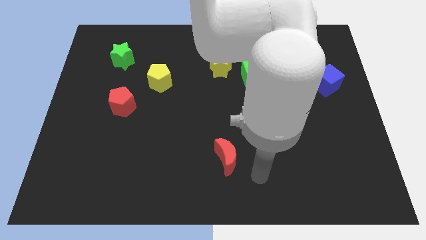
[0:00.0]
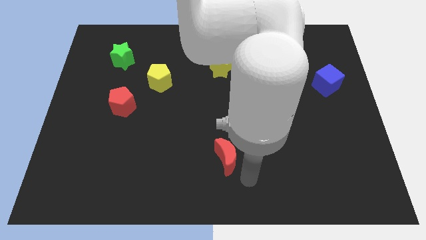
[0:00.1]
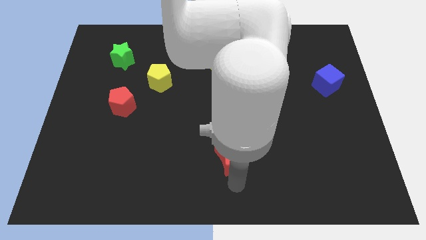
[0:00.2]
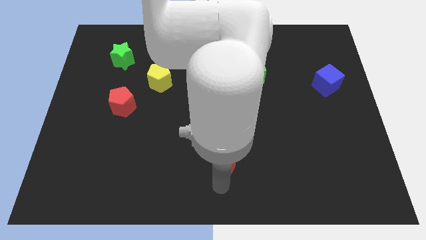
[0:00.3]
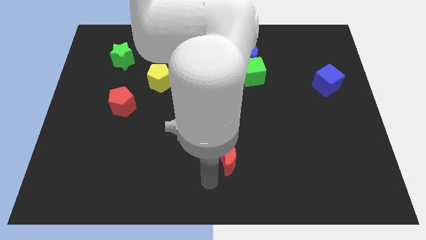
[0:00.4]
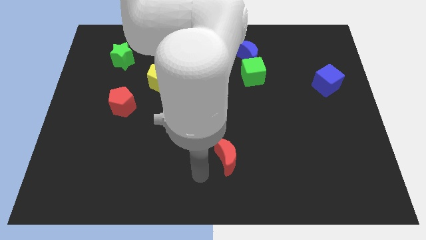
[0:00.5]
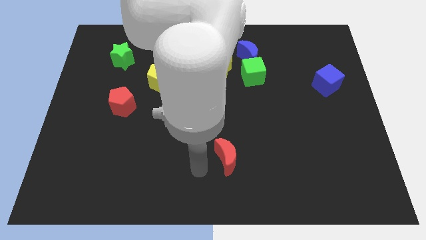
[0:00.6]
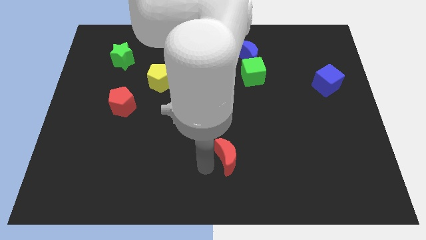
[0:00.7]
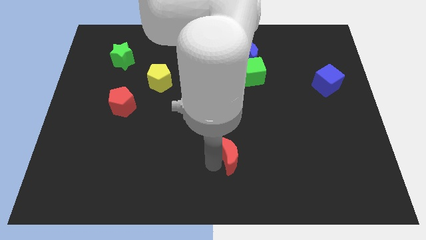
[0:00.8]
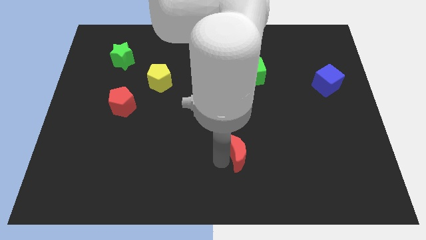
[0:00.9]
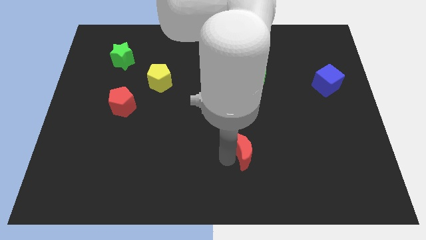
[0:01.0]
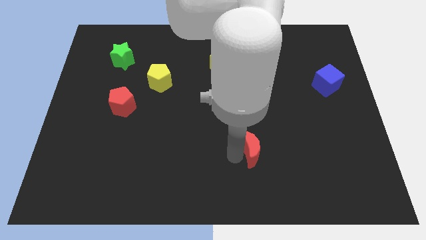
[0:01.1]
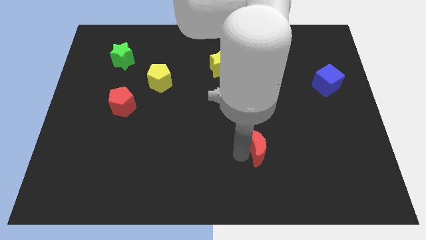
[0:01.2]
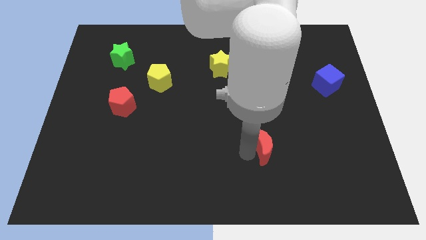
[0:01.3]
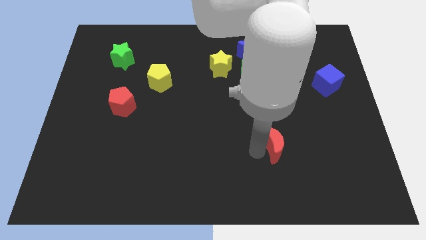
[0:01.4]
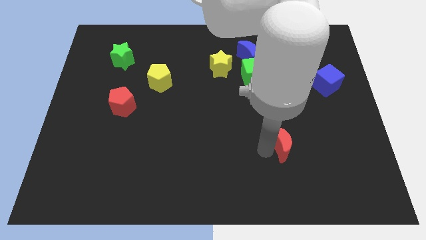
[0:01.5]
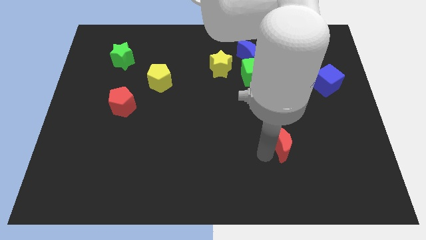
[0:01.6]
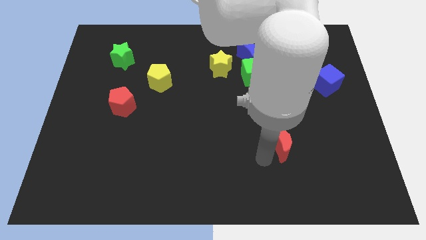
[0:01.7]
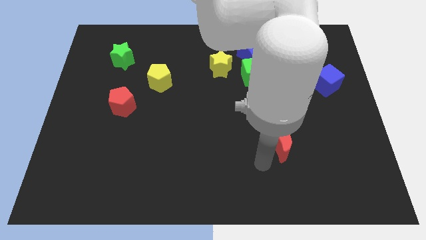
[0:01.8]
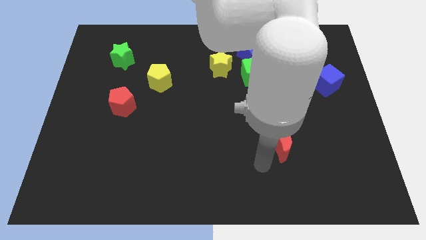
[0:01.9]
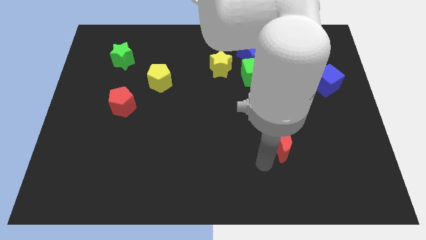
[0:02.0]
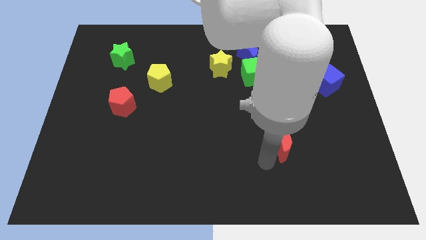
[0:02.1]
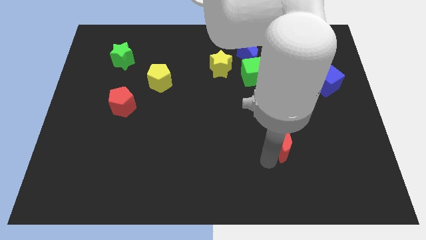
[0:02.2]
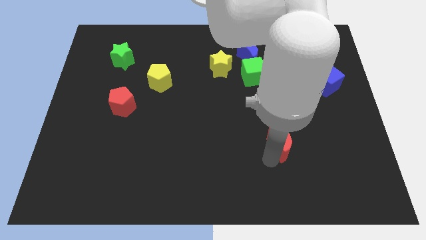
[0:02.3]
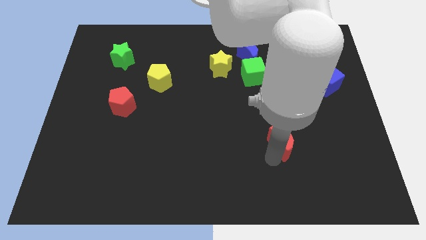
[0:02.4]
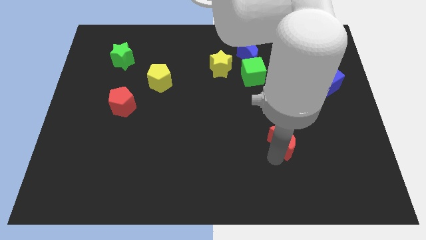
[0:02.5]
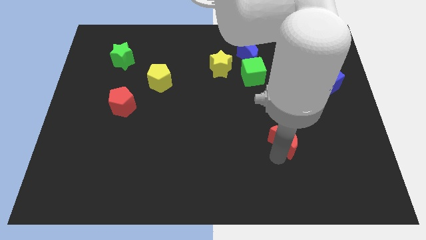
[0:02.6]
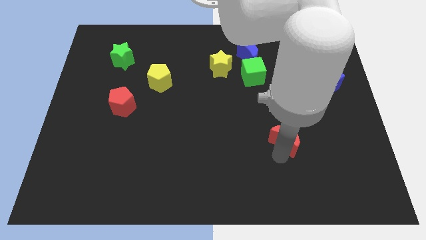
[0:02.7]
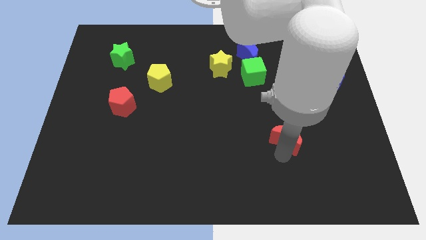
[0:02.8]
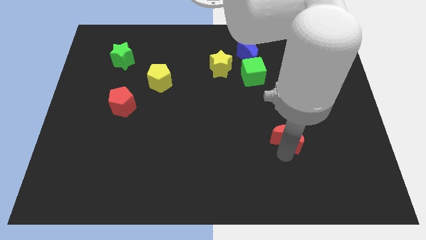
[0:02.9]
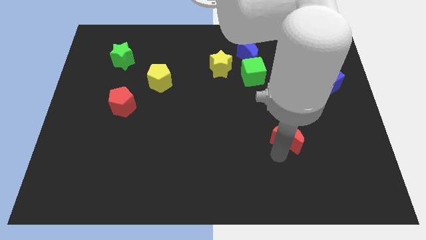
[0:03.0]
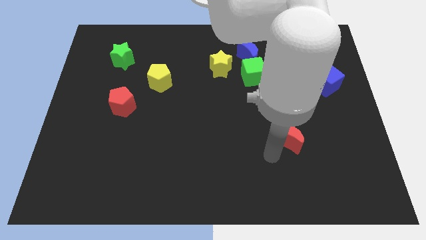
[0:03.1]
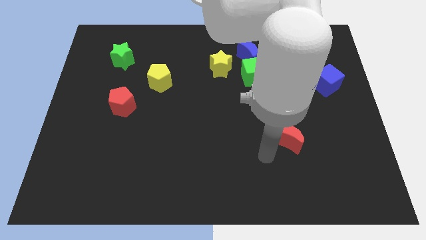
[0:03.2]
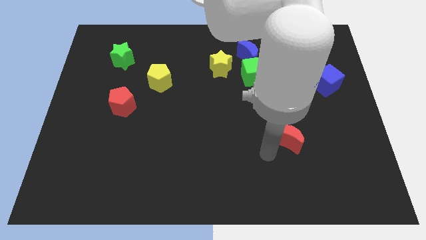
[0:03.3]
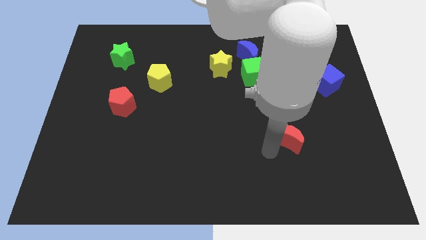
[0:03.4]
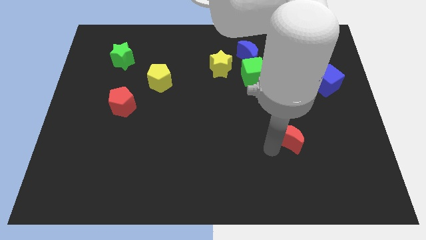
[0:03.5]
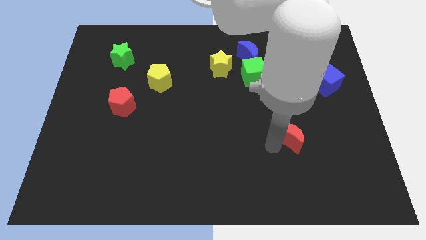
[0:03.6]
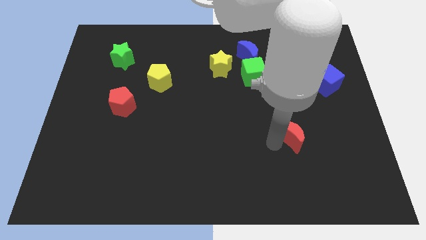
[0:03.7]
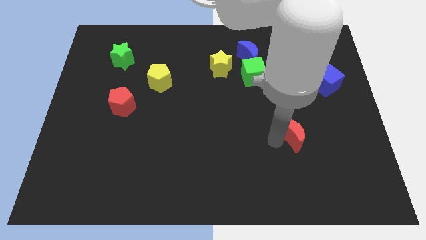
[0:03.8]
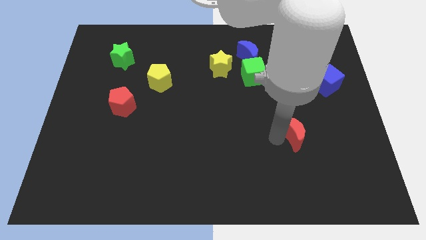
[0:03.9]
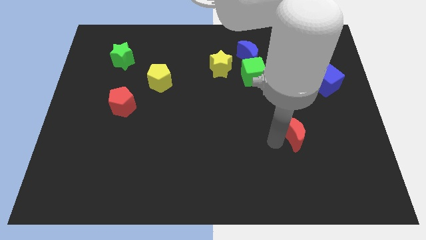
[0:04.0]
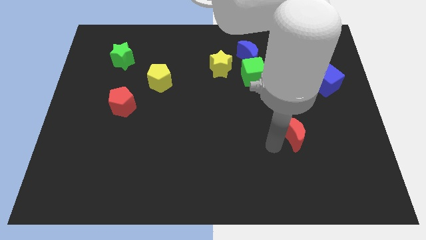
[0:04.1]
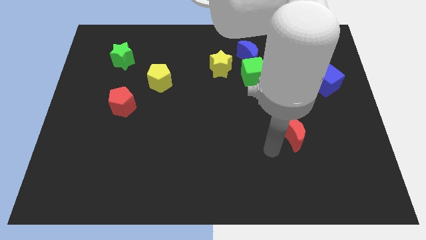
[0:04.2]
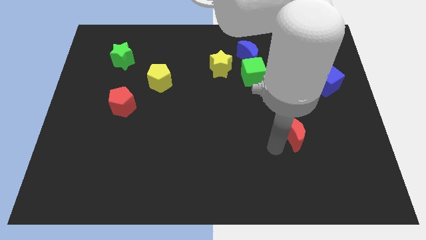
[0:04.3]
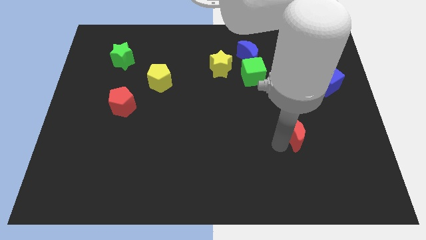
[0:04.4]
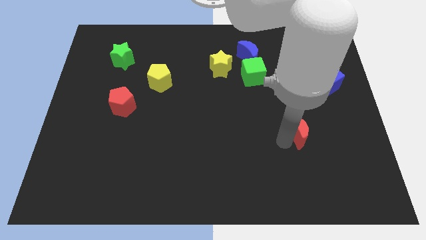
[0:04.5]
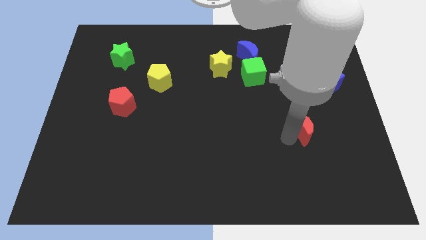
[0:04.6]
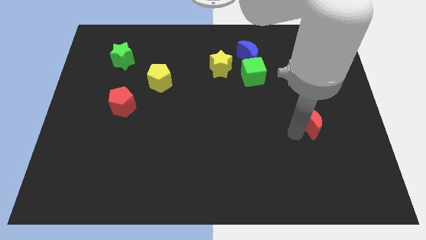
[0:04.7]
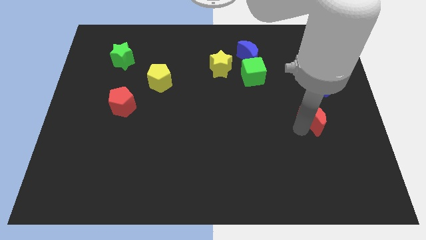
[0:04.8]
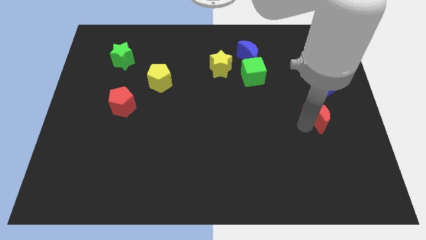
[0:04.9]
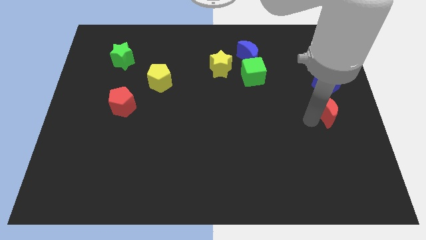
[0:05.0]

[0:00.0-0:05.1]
put the red moon to the right side

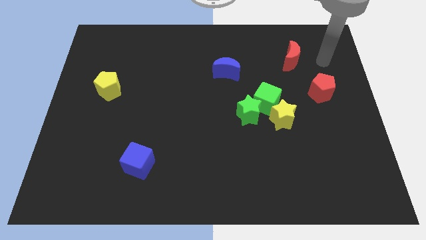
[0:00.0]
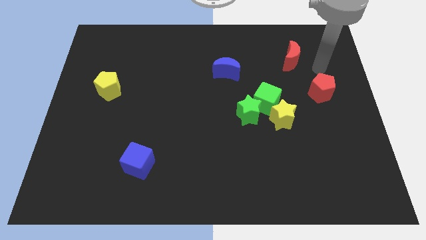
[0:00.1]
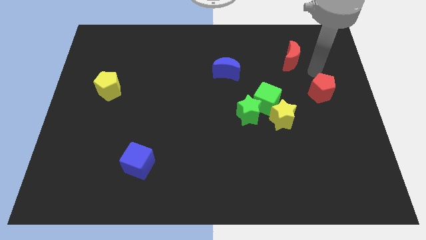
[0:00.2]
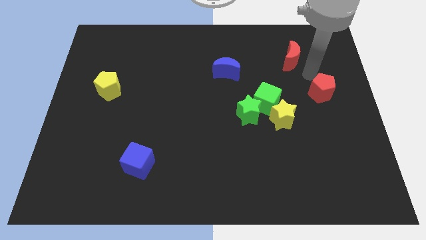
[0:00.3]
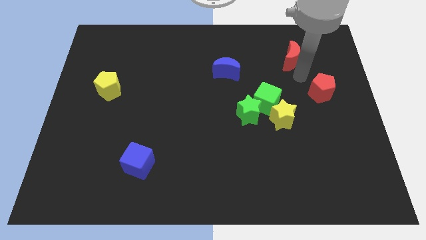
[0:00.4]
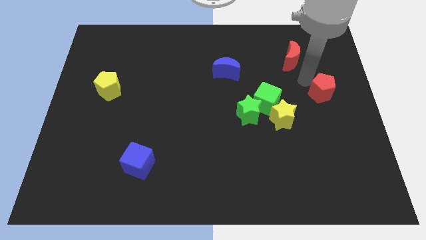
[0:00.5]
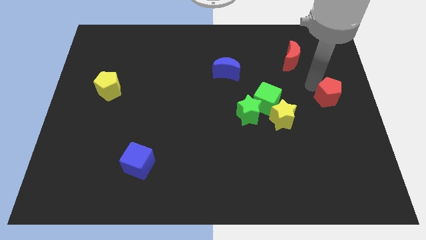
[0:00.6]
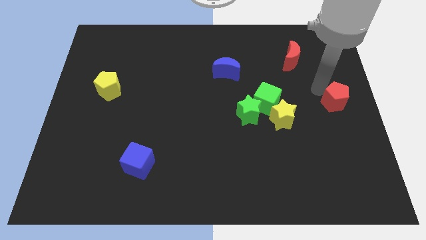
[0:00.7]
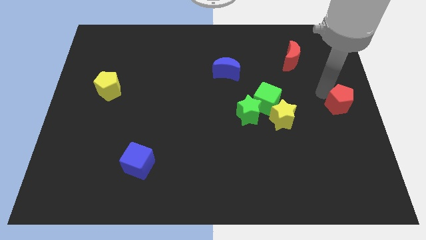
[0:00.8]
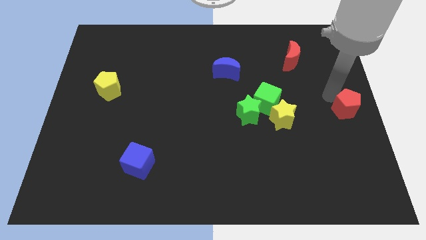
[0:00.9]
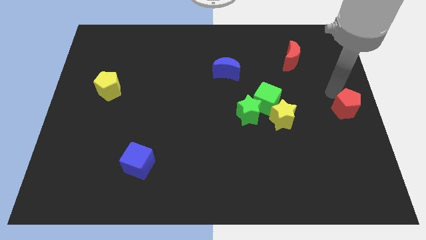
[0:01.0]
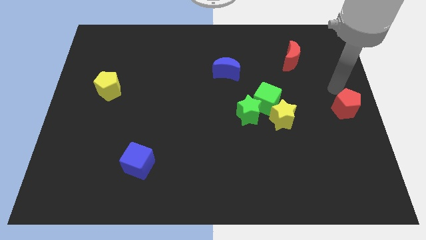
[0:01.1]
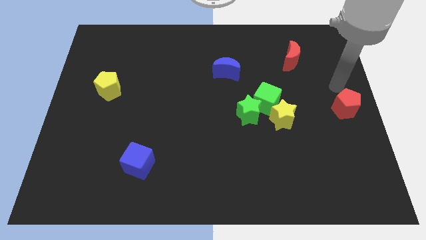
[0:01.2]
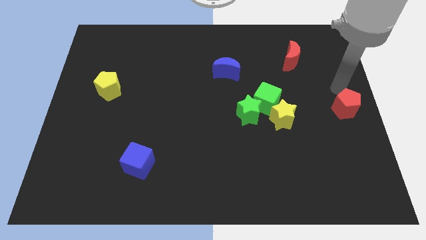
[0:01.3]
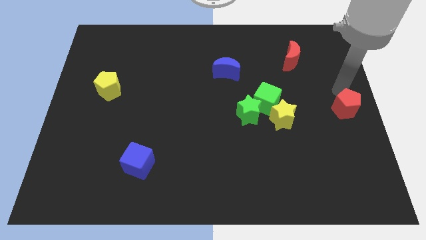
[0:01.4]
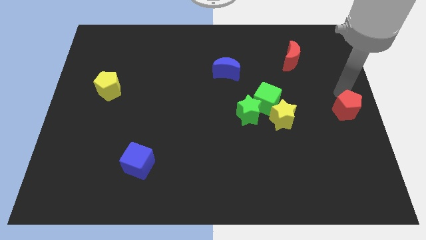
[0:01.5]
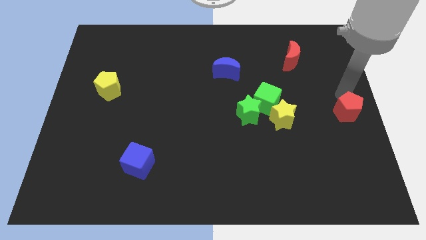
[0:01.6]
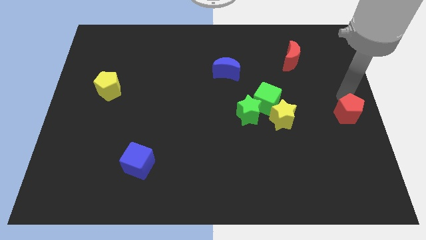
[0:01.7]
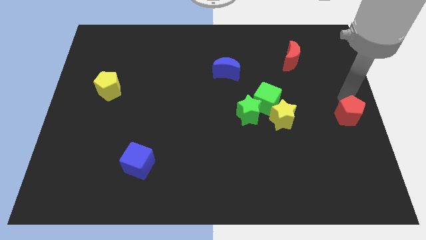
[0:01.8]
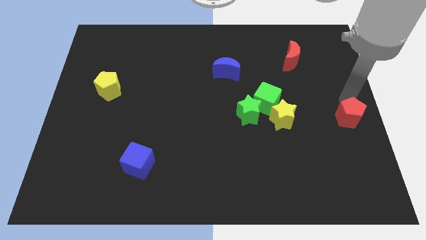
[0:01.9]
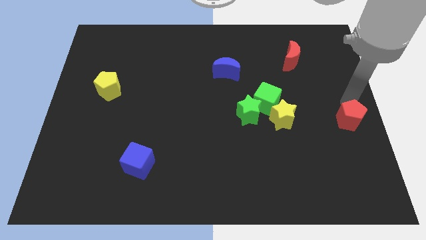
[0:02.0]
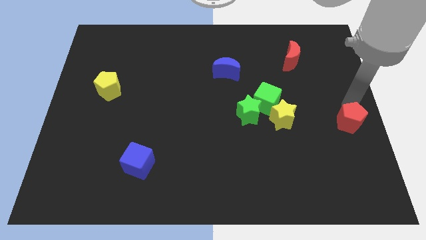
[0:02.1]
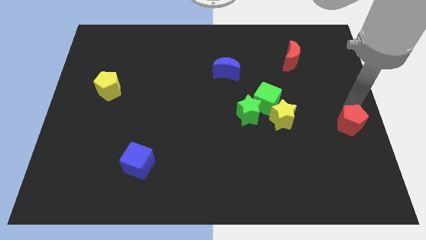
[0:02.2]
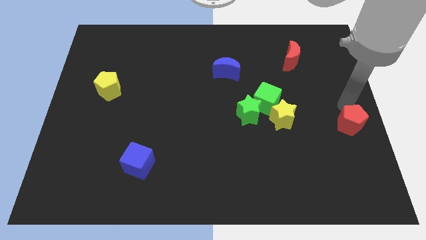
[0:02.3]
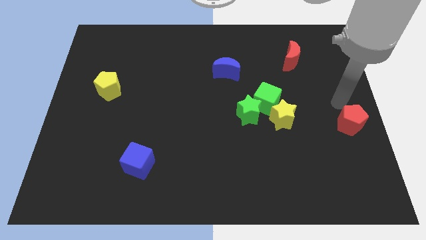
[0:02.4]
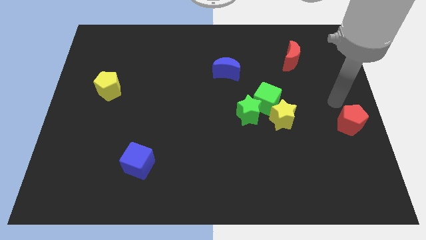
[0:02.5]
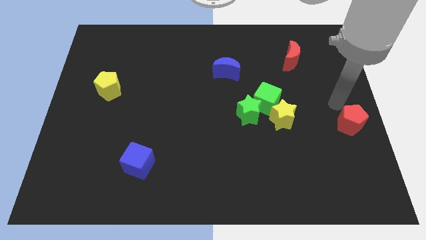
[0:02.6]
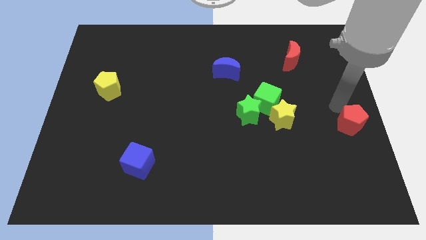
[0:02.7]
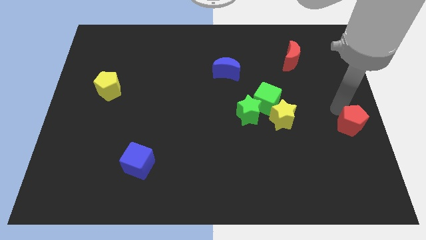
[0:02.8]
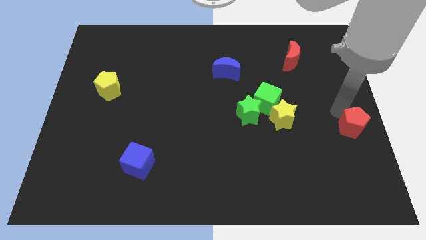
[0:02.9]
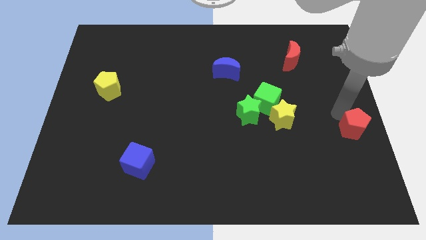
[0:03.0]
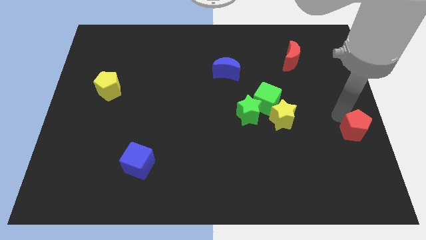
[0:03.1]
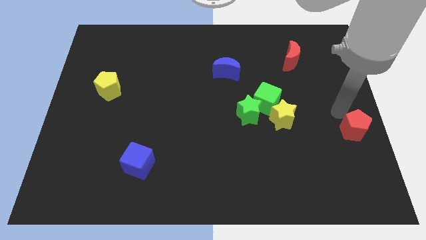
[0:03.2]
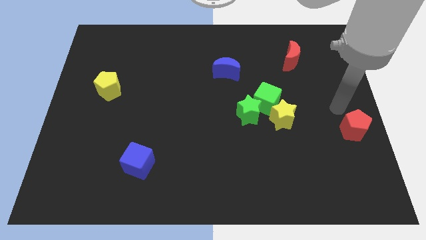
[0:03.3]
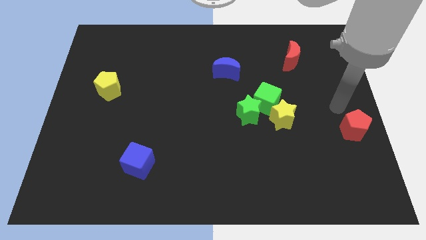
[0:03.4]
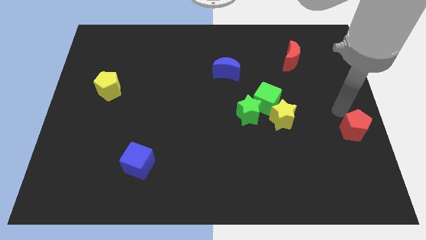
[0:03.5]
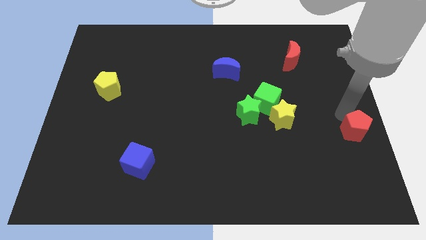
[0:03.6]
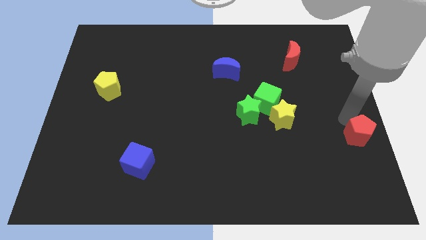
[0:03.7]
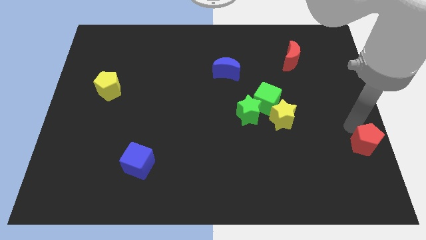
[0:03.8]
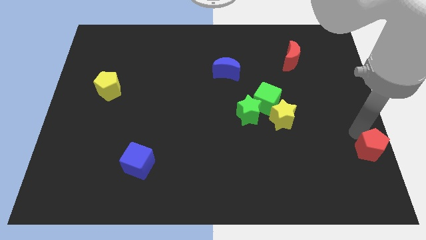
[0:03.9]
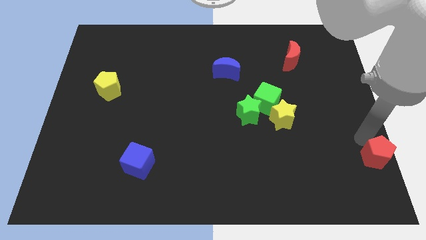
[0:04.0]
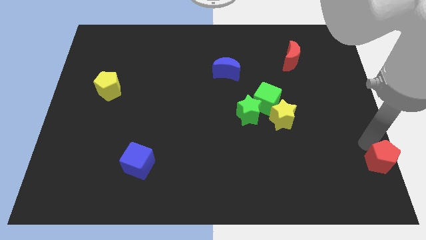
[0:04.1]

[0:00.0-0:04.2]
move the red pentagon to the bottom right corner
